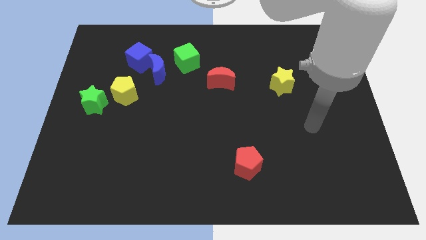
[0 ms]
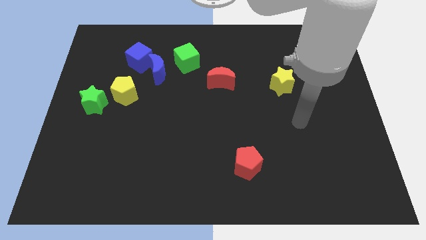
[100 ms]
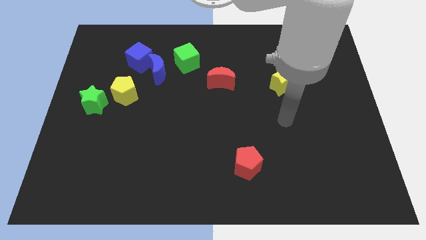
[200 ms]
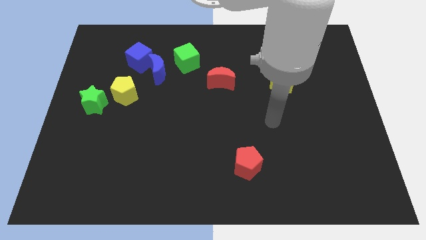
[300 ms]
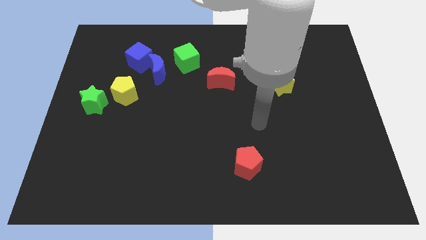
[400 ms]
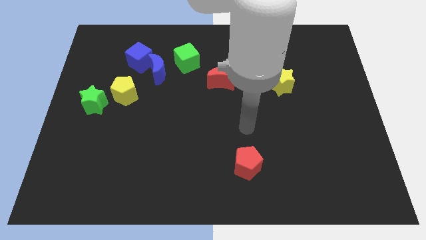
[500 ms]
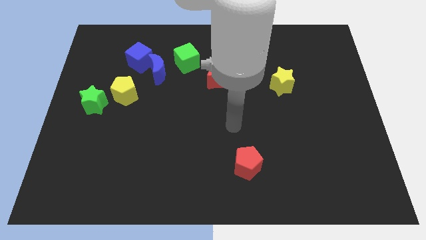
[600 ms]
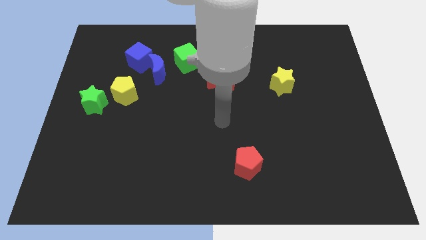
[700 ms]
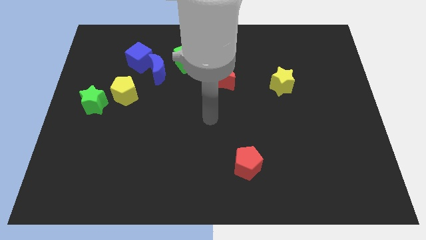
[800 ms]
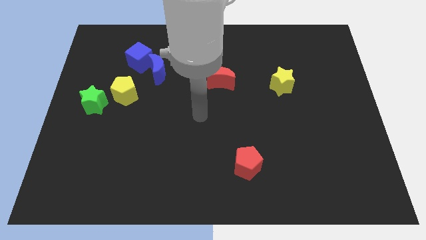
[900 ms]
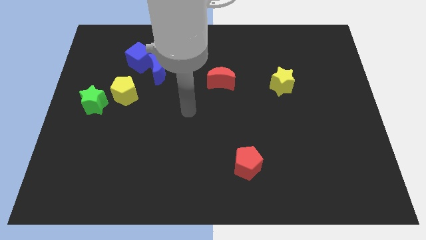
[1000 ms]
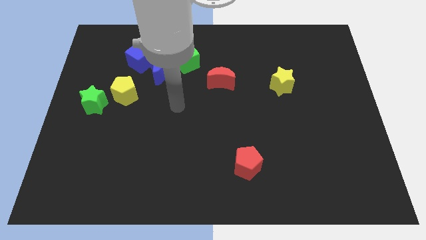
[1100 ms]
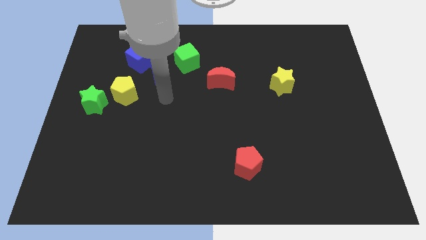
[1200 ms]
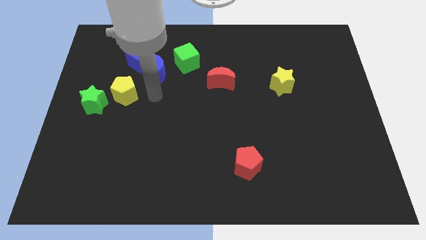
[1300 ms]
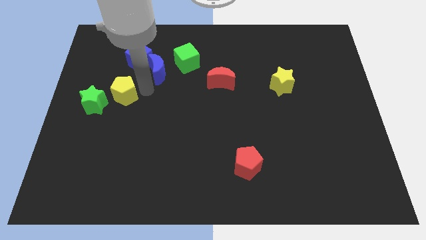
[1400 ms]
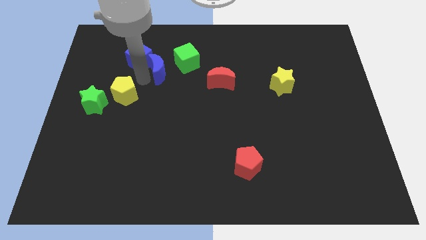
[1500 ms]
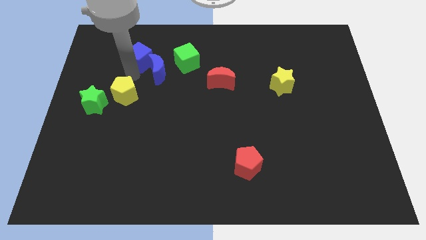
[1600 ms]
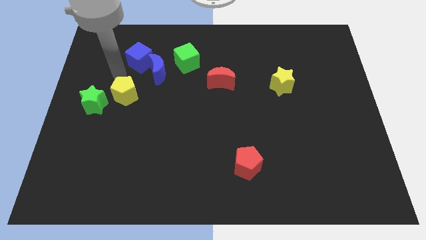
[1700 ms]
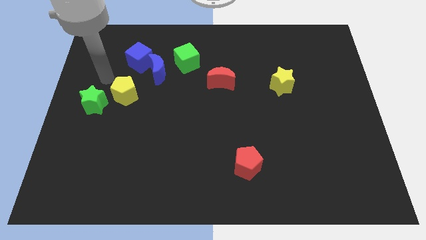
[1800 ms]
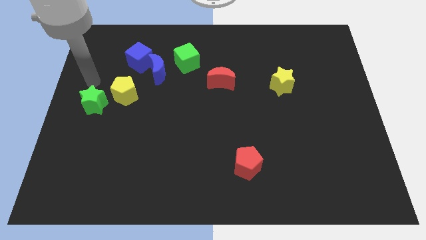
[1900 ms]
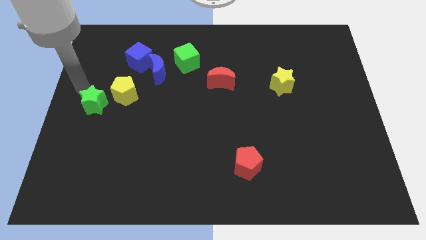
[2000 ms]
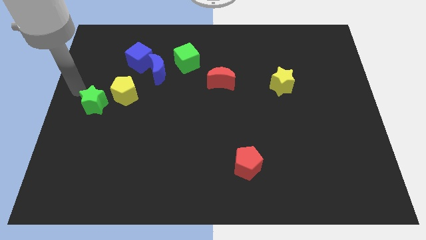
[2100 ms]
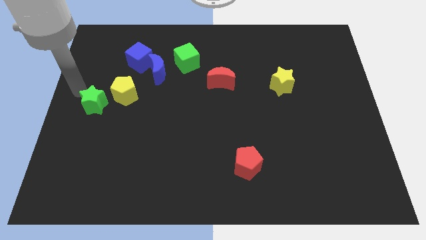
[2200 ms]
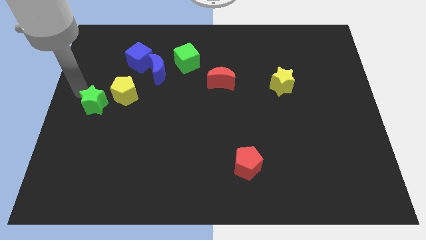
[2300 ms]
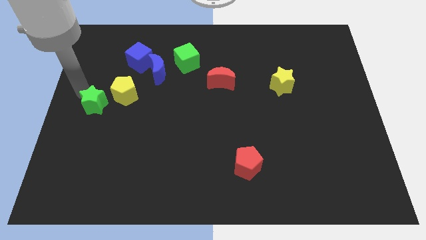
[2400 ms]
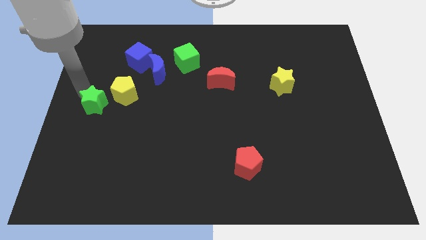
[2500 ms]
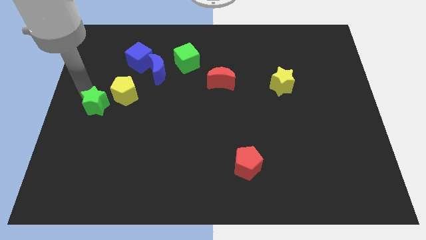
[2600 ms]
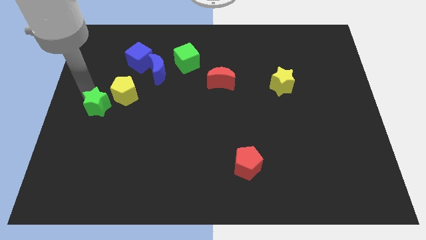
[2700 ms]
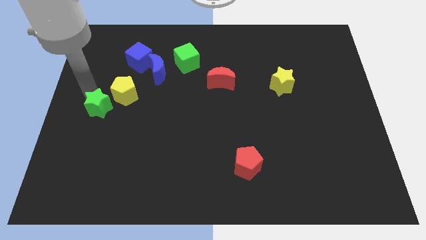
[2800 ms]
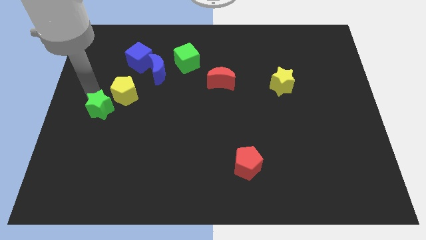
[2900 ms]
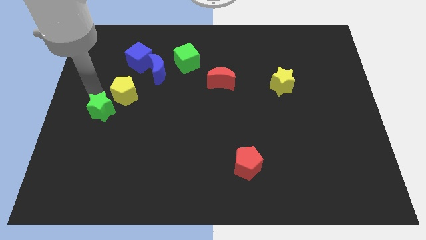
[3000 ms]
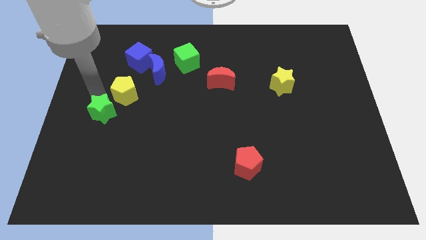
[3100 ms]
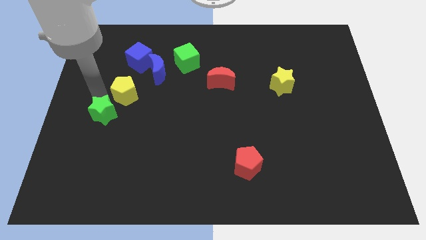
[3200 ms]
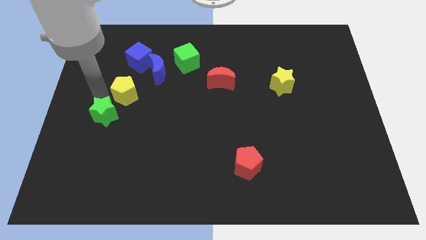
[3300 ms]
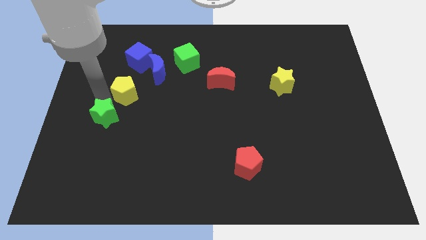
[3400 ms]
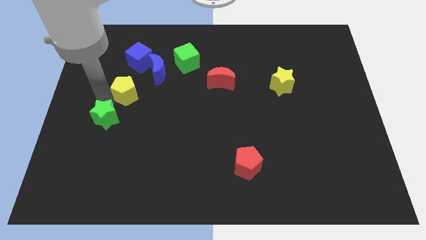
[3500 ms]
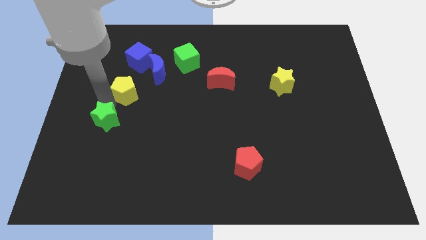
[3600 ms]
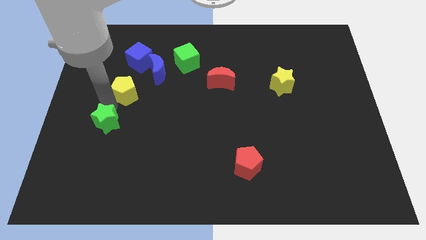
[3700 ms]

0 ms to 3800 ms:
slightly slide the green star downwards and to the right diagonally

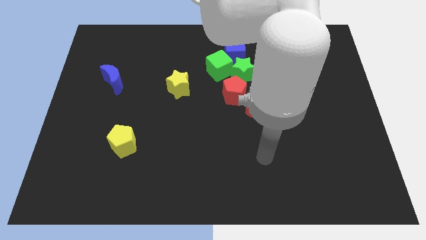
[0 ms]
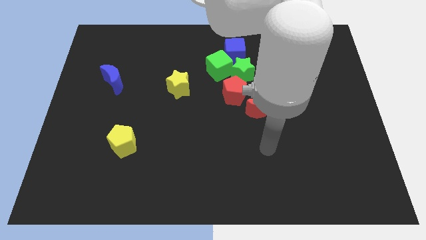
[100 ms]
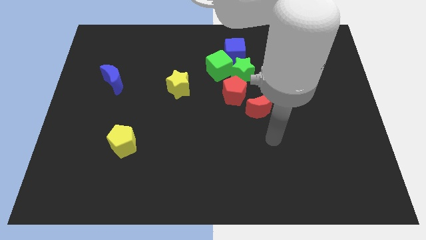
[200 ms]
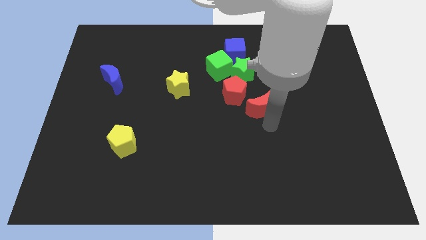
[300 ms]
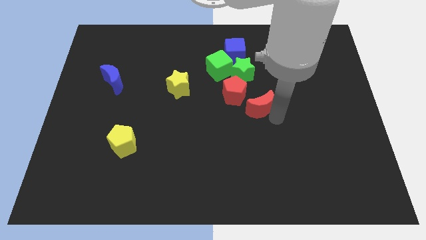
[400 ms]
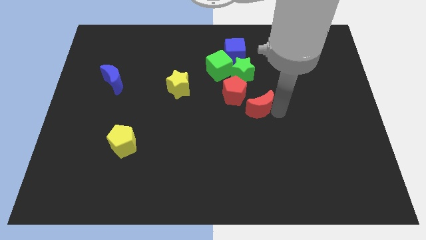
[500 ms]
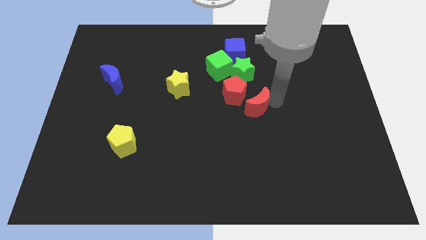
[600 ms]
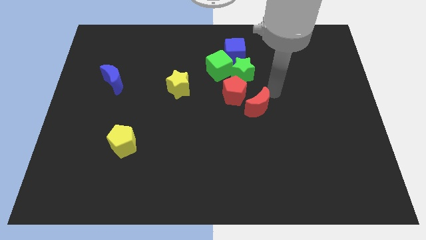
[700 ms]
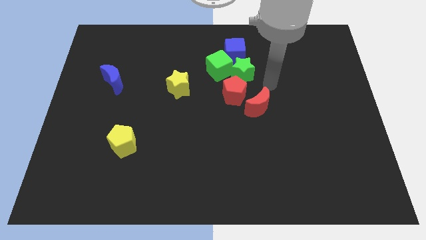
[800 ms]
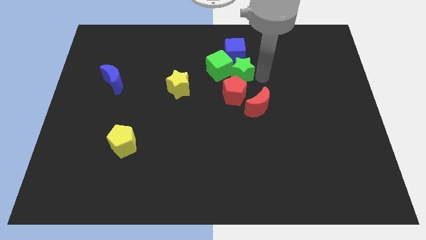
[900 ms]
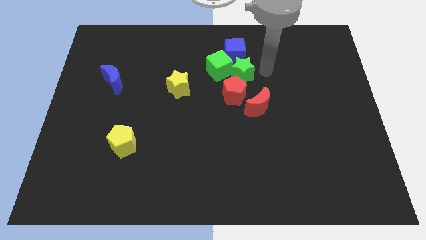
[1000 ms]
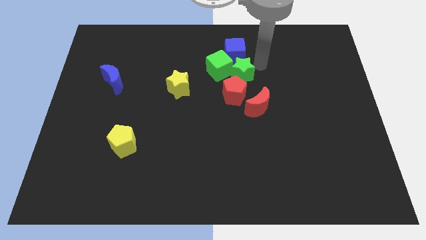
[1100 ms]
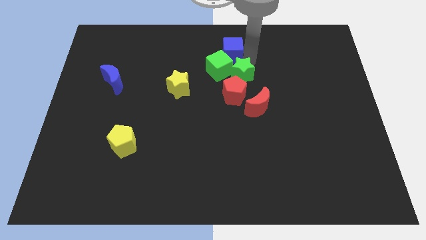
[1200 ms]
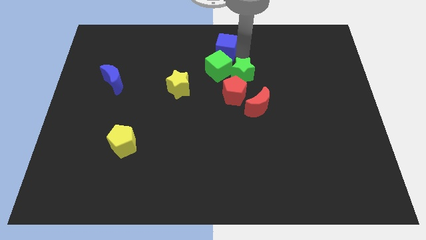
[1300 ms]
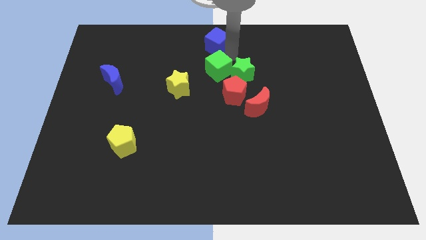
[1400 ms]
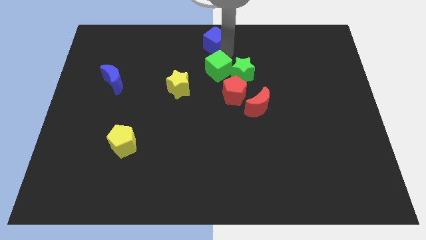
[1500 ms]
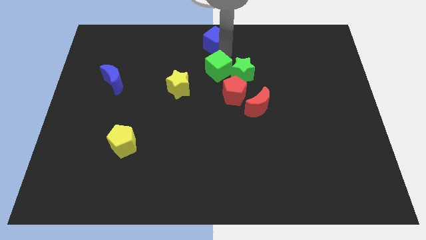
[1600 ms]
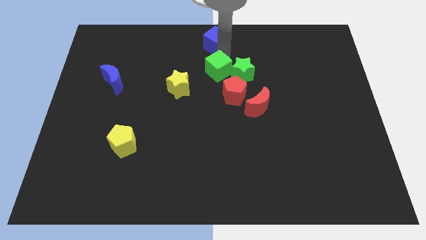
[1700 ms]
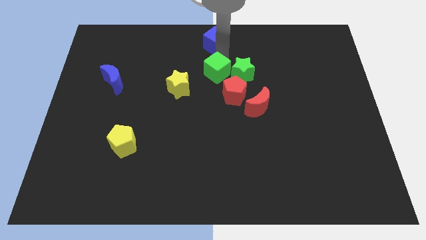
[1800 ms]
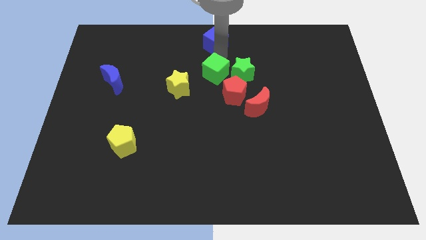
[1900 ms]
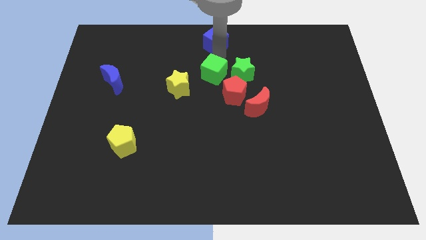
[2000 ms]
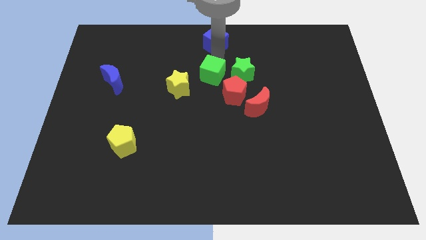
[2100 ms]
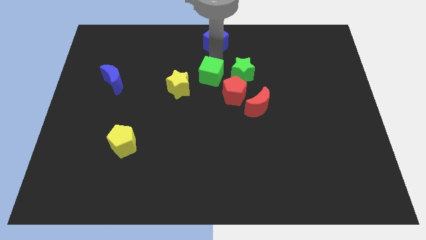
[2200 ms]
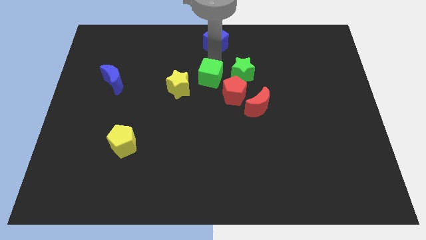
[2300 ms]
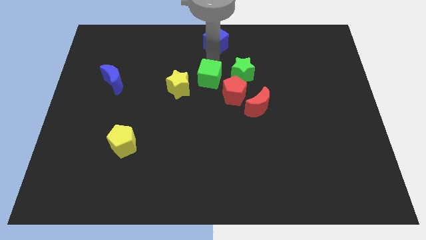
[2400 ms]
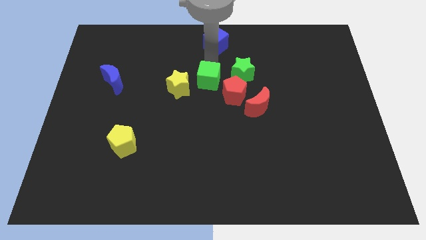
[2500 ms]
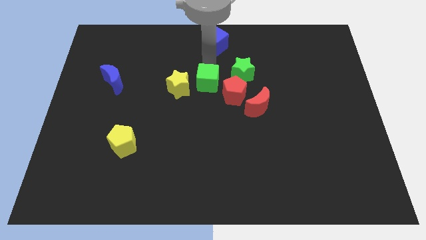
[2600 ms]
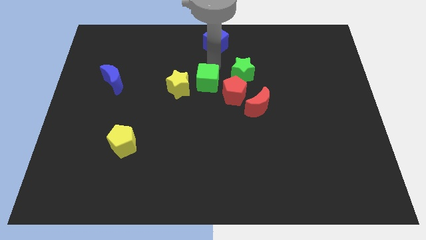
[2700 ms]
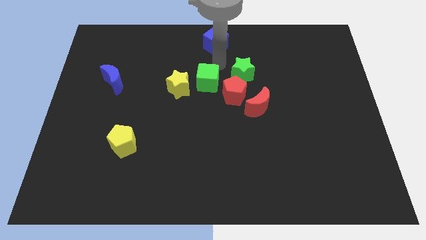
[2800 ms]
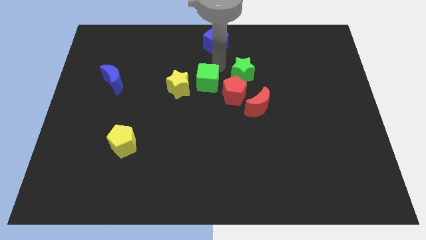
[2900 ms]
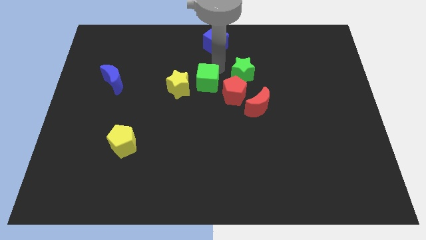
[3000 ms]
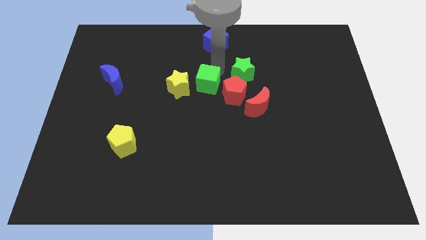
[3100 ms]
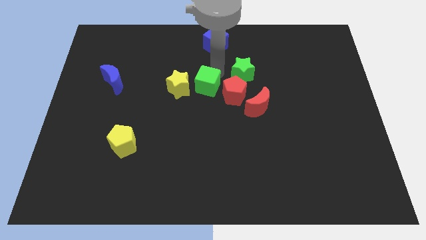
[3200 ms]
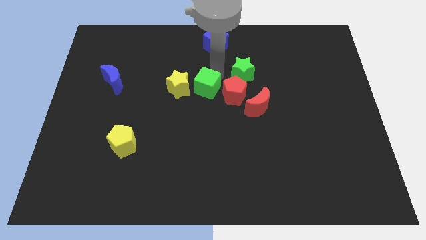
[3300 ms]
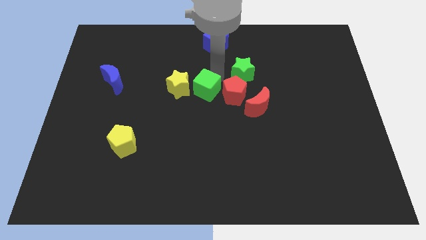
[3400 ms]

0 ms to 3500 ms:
move the green cube down and then to the left slightly

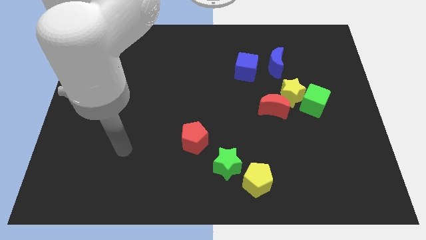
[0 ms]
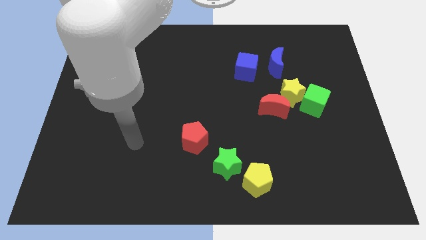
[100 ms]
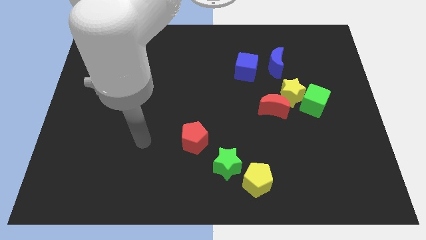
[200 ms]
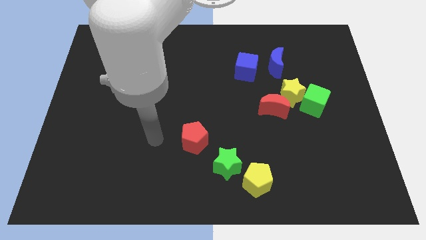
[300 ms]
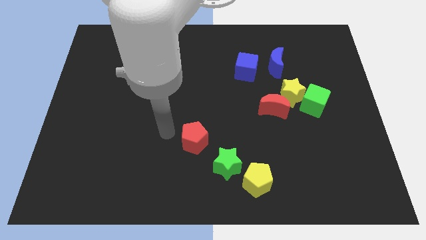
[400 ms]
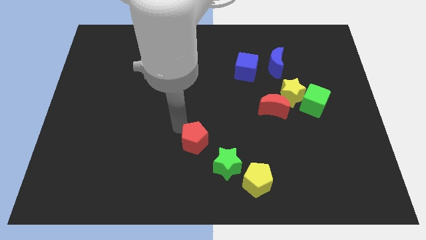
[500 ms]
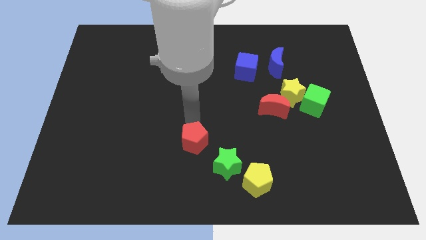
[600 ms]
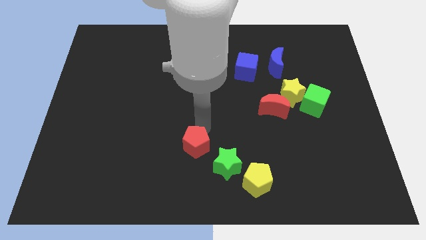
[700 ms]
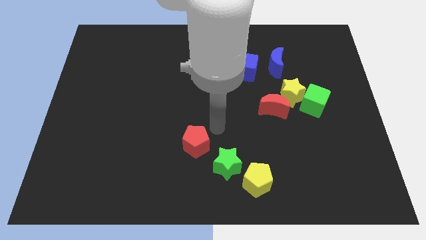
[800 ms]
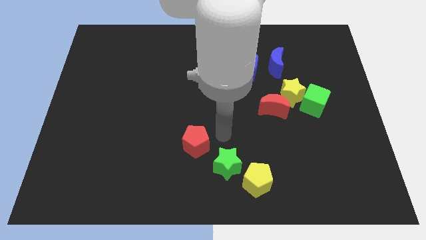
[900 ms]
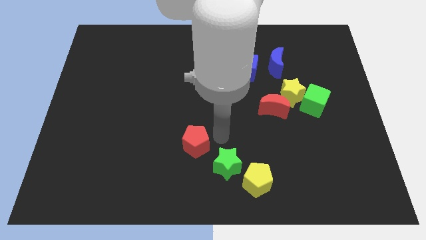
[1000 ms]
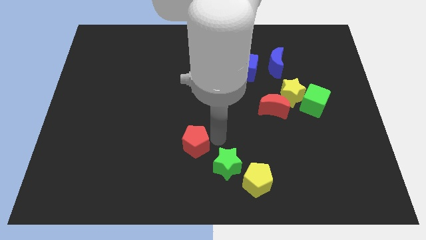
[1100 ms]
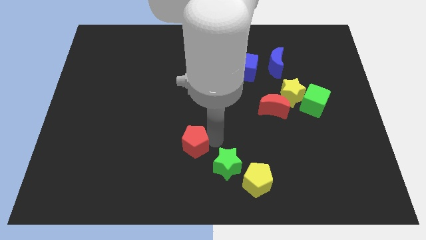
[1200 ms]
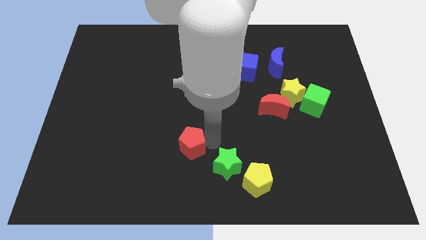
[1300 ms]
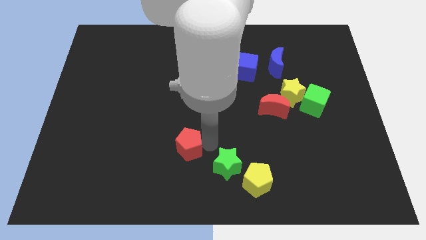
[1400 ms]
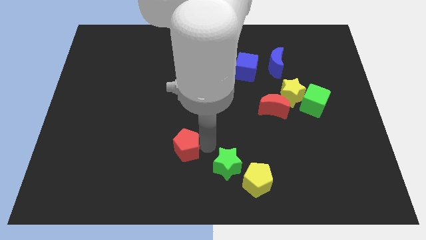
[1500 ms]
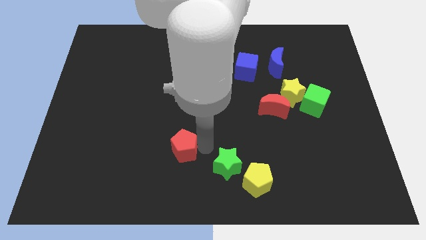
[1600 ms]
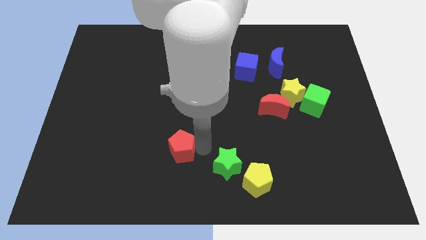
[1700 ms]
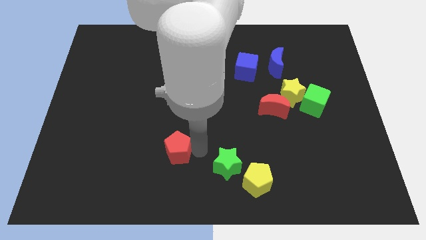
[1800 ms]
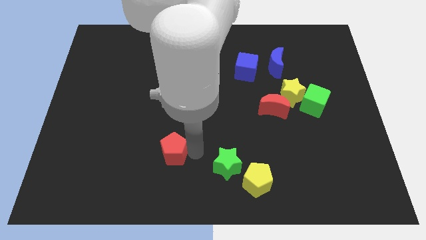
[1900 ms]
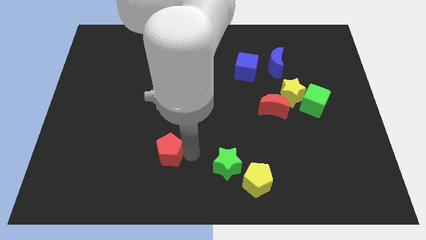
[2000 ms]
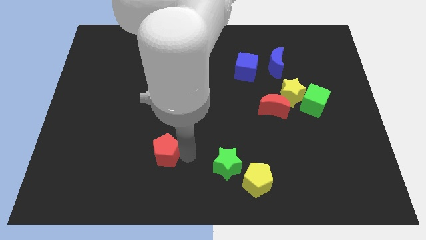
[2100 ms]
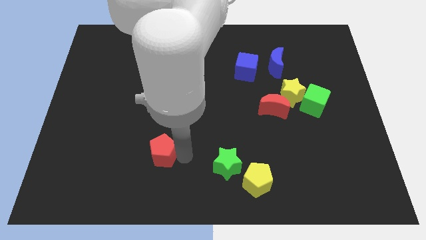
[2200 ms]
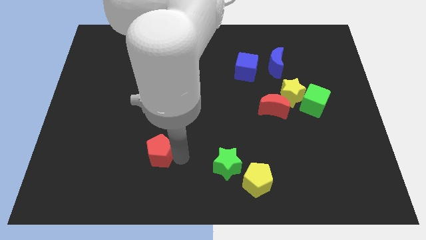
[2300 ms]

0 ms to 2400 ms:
push the red pentagon a bit left
